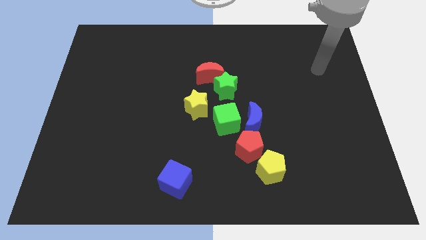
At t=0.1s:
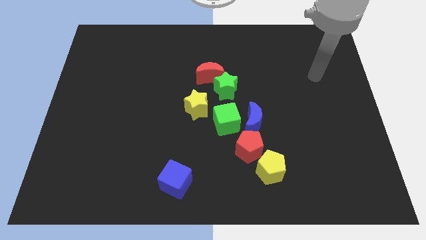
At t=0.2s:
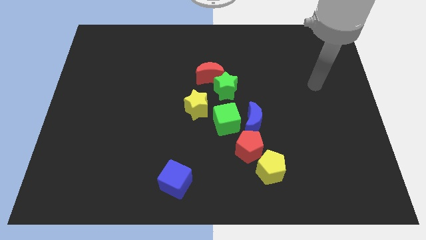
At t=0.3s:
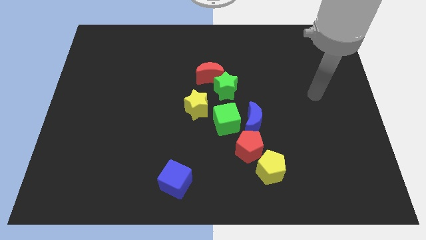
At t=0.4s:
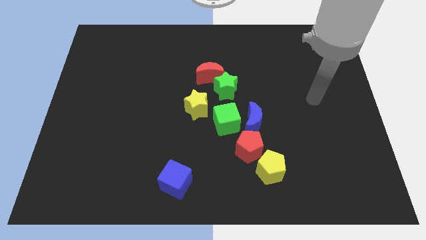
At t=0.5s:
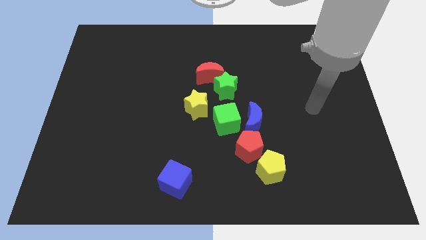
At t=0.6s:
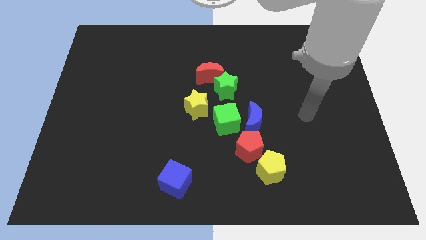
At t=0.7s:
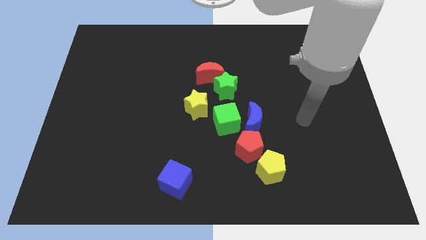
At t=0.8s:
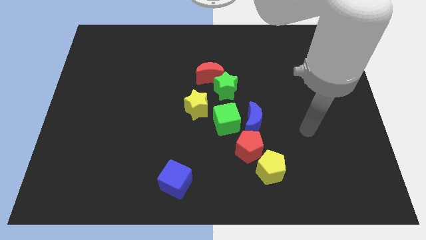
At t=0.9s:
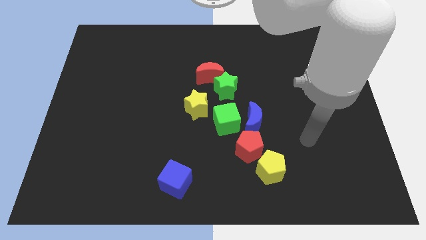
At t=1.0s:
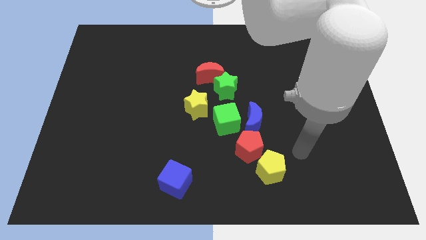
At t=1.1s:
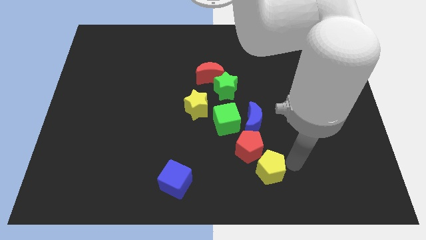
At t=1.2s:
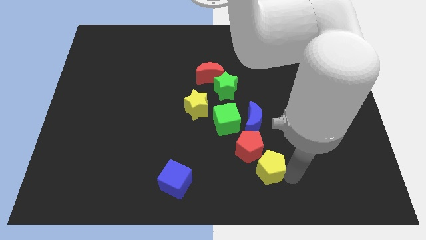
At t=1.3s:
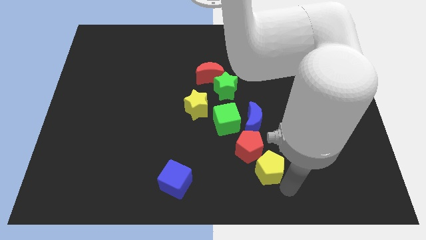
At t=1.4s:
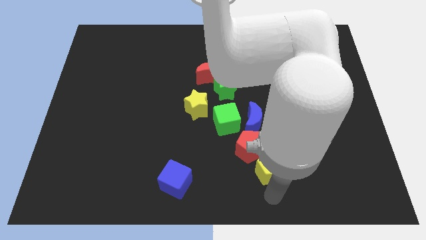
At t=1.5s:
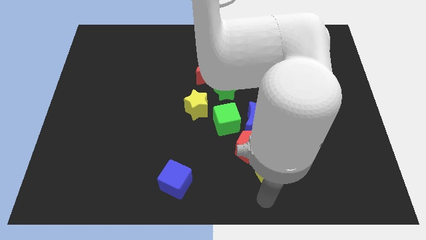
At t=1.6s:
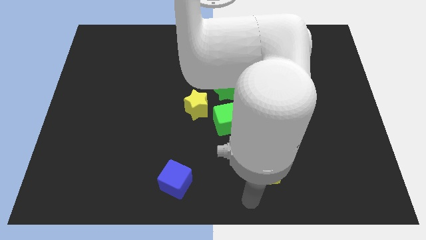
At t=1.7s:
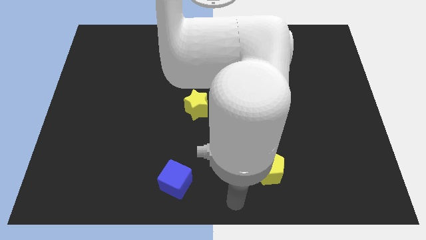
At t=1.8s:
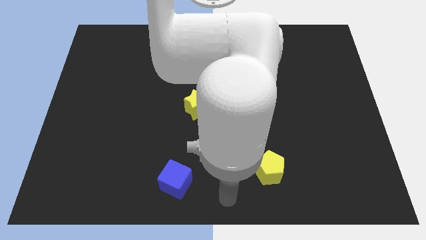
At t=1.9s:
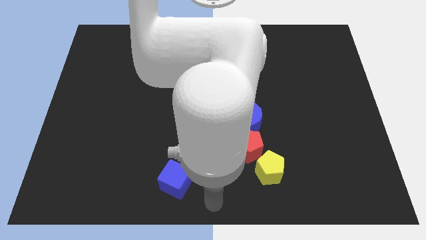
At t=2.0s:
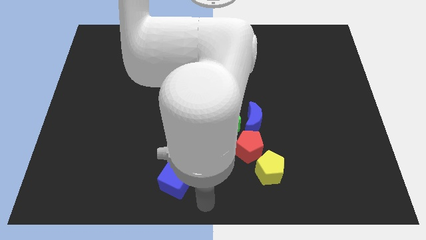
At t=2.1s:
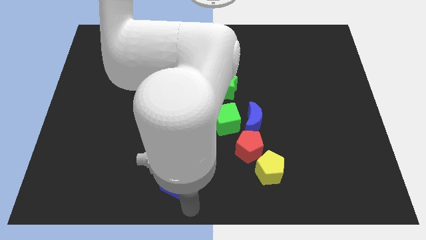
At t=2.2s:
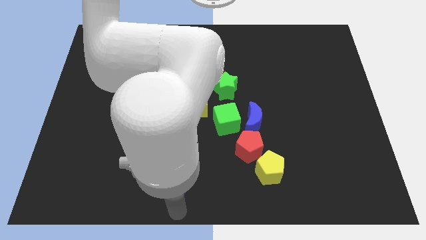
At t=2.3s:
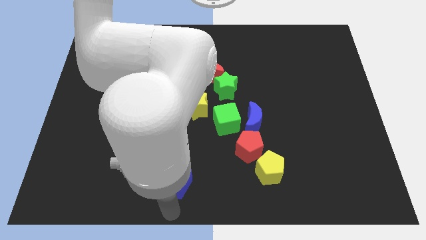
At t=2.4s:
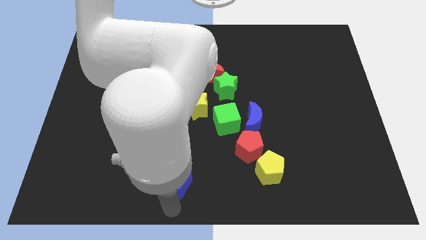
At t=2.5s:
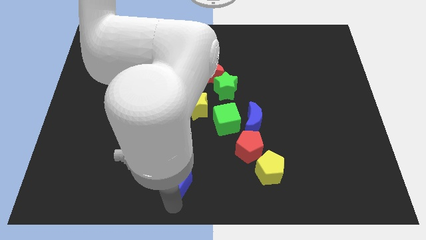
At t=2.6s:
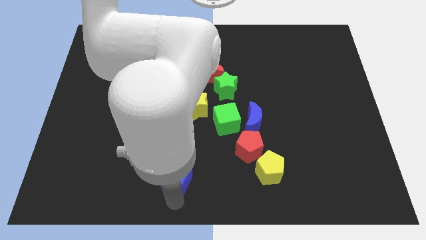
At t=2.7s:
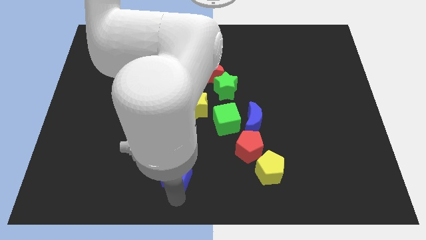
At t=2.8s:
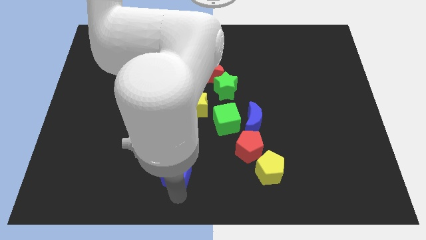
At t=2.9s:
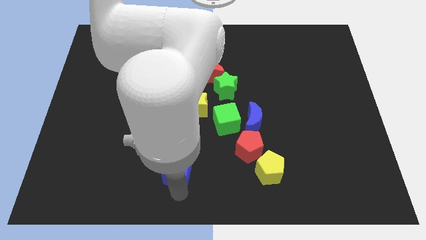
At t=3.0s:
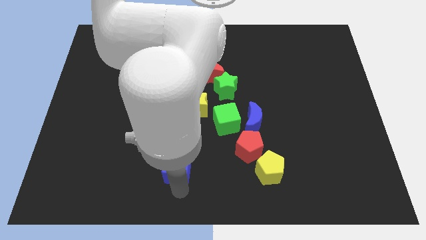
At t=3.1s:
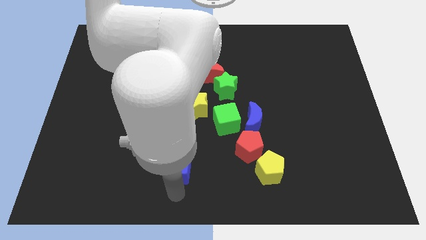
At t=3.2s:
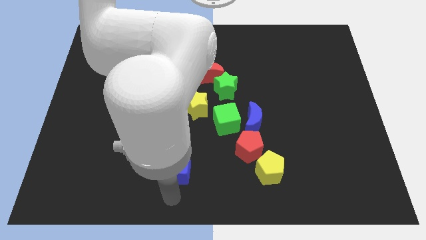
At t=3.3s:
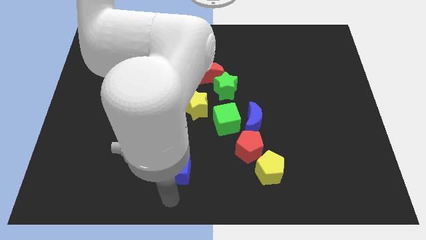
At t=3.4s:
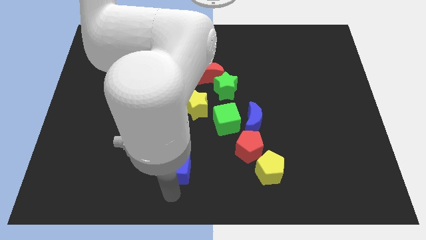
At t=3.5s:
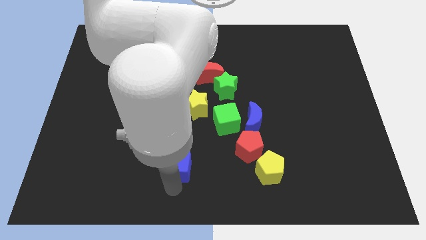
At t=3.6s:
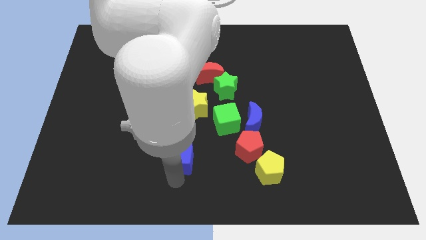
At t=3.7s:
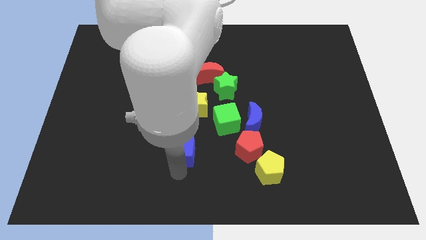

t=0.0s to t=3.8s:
slide the blue cube a bit up

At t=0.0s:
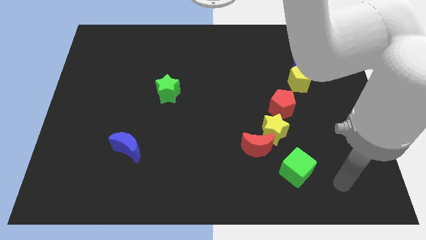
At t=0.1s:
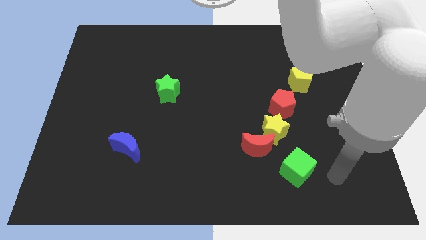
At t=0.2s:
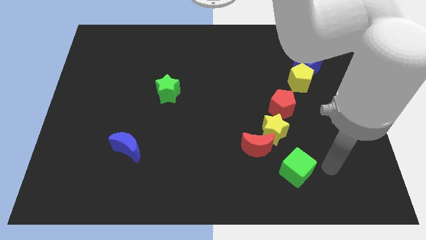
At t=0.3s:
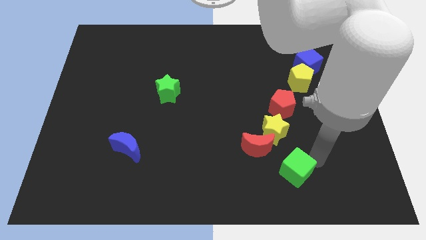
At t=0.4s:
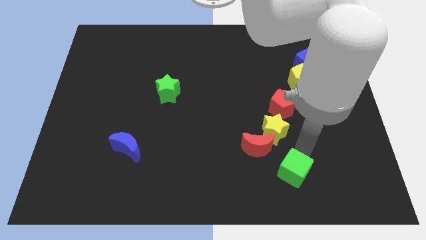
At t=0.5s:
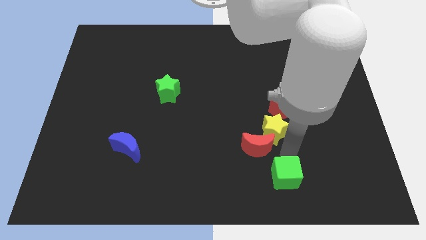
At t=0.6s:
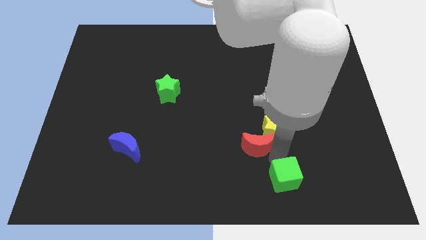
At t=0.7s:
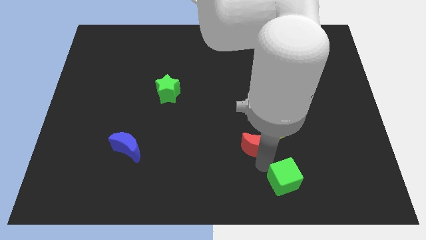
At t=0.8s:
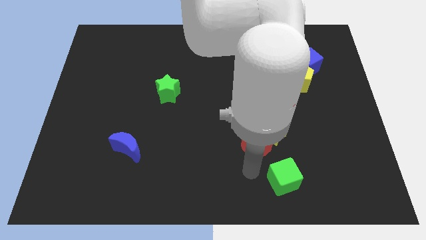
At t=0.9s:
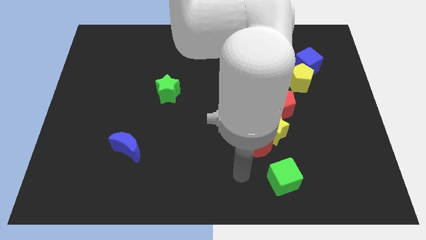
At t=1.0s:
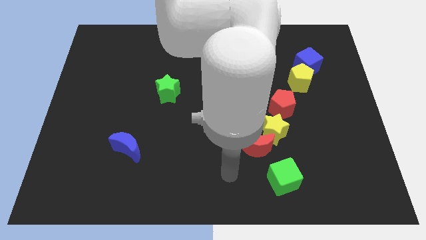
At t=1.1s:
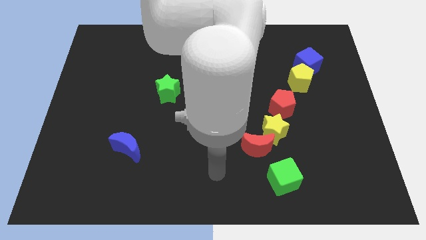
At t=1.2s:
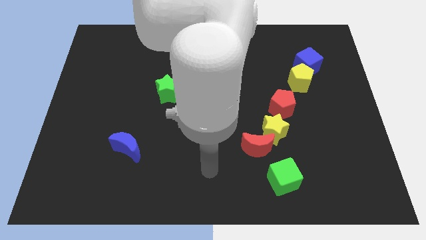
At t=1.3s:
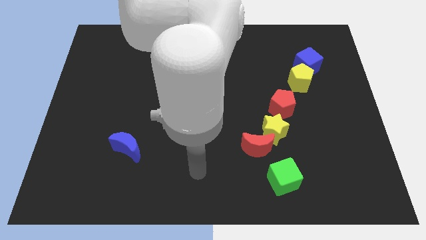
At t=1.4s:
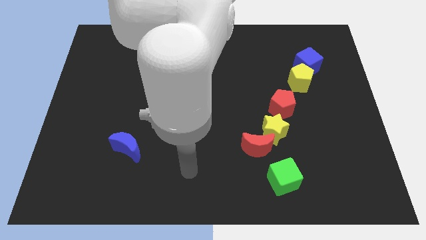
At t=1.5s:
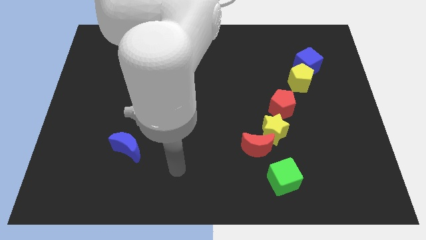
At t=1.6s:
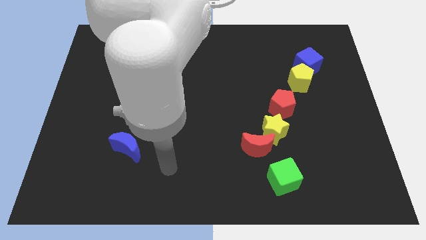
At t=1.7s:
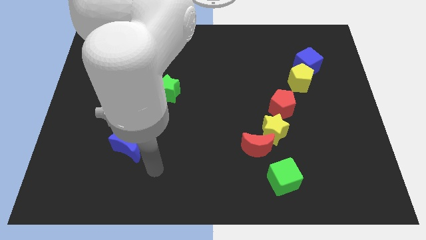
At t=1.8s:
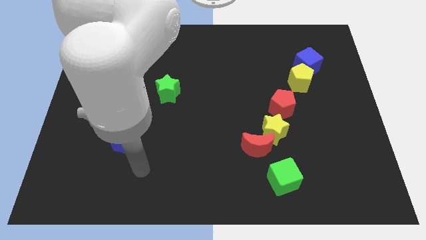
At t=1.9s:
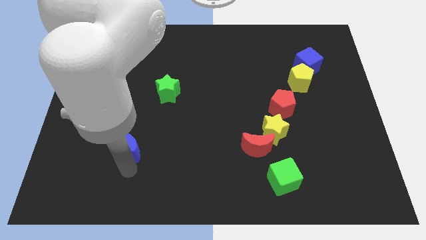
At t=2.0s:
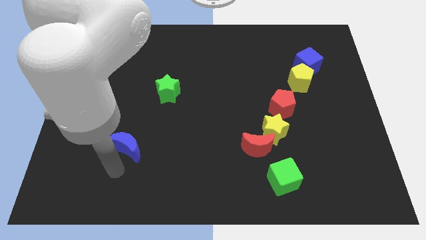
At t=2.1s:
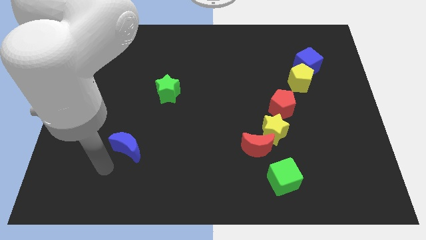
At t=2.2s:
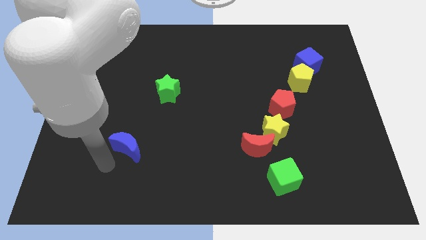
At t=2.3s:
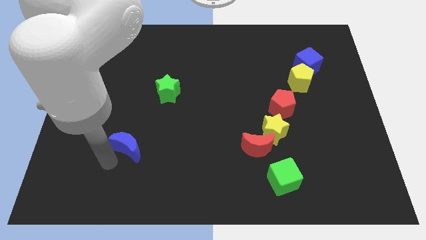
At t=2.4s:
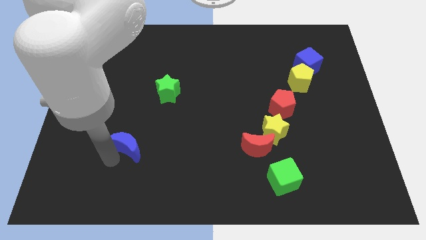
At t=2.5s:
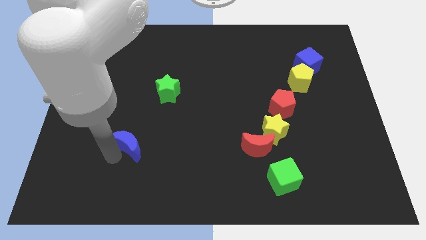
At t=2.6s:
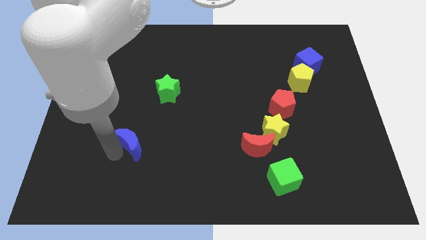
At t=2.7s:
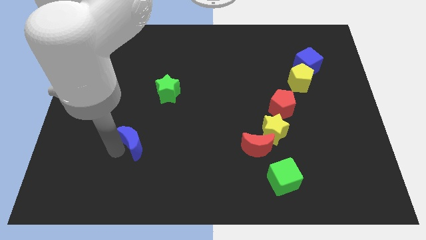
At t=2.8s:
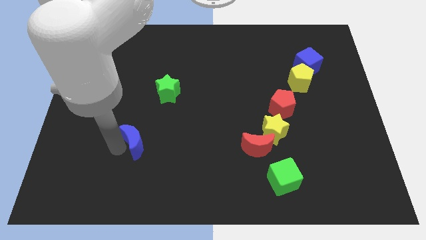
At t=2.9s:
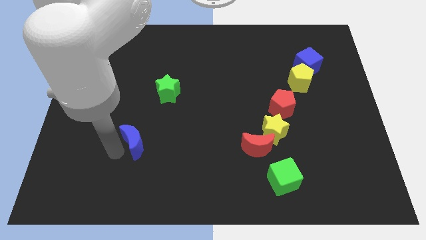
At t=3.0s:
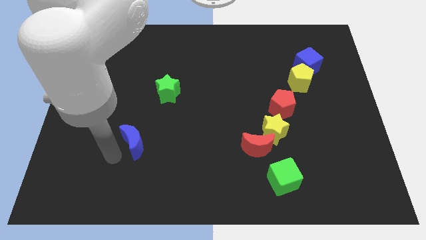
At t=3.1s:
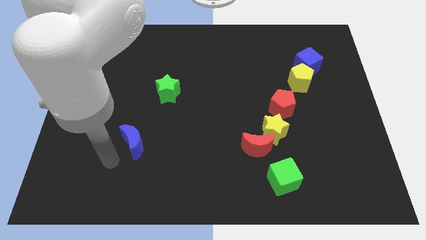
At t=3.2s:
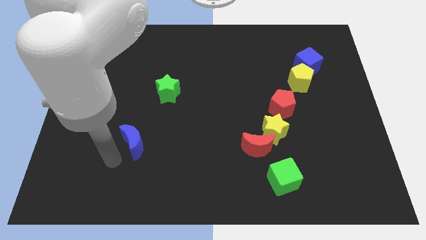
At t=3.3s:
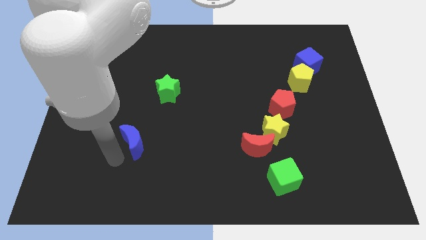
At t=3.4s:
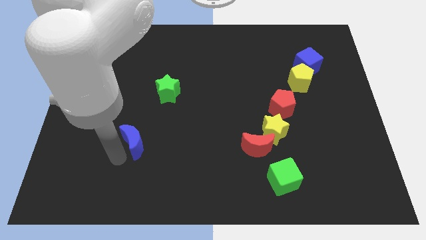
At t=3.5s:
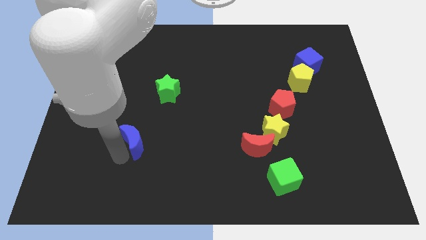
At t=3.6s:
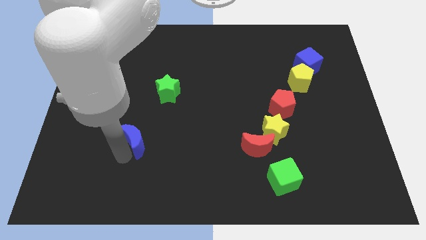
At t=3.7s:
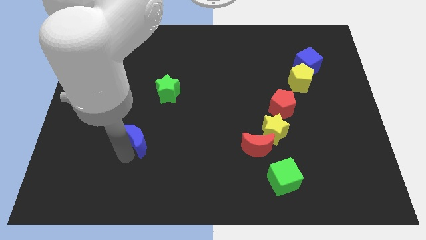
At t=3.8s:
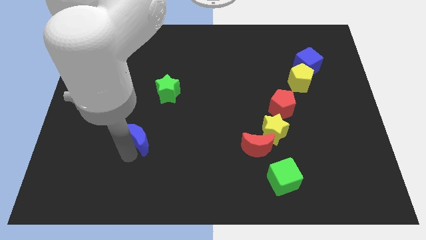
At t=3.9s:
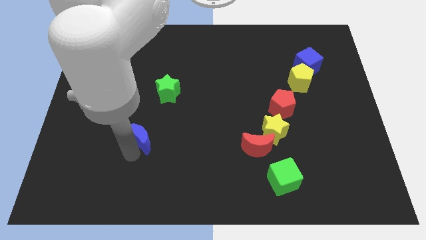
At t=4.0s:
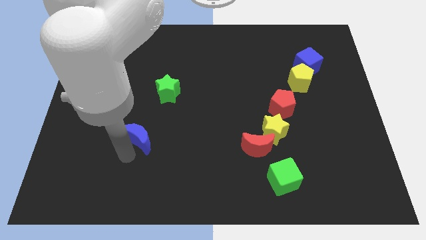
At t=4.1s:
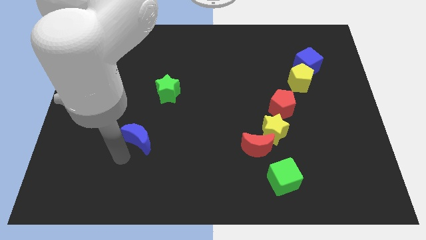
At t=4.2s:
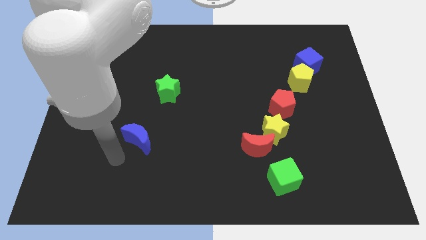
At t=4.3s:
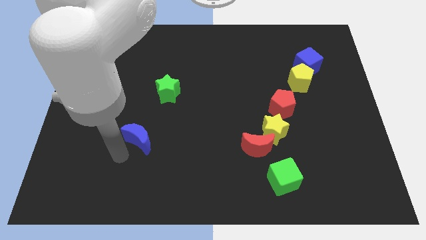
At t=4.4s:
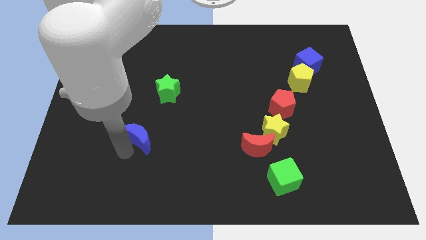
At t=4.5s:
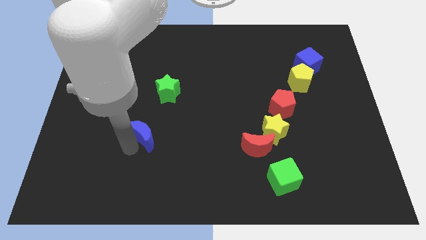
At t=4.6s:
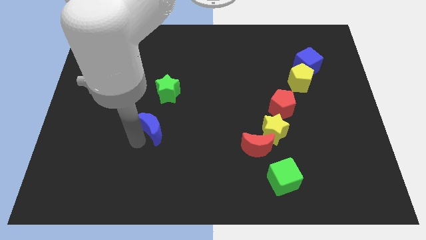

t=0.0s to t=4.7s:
slightly push the blue moon upwards and then to the right
